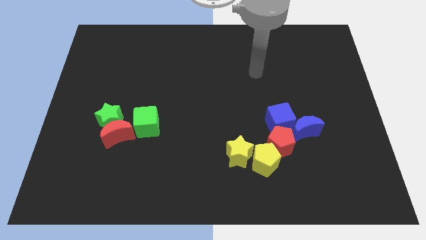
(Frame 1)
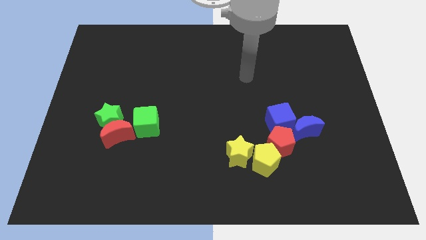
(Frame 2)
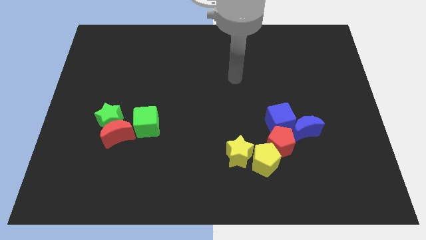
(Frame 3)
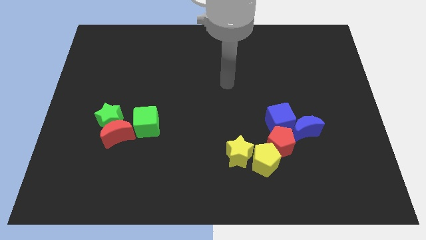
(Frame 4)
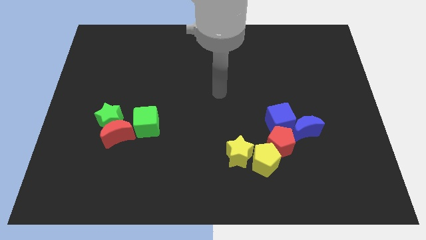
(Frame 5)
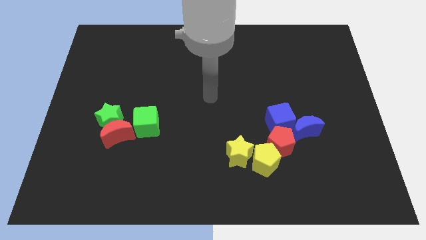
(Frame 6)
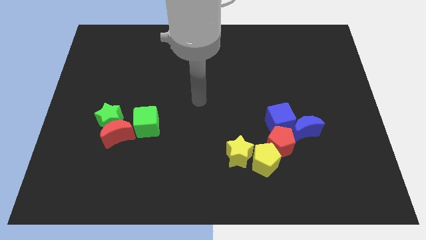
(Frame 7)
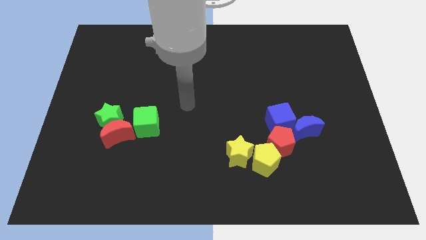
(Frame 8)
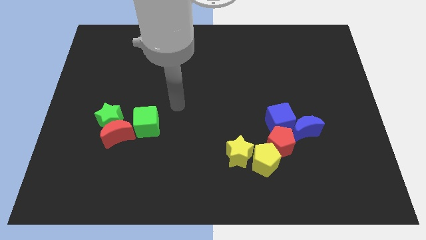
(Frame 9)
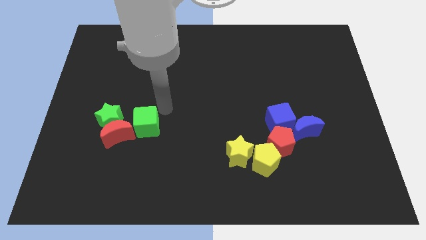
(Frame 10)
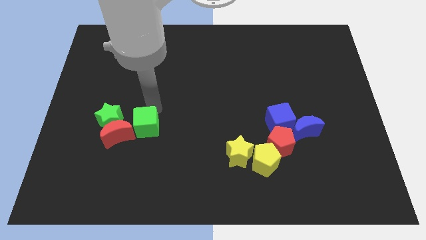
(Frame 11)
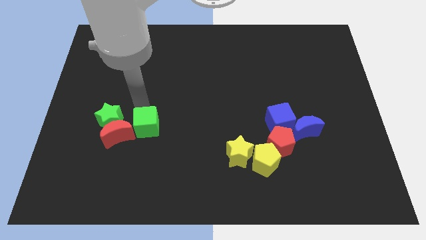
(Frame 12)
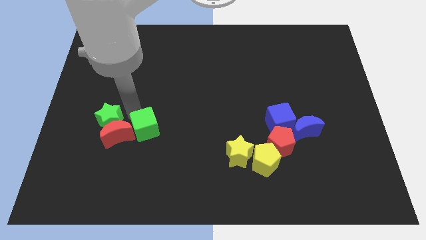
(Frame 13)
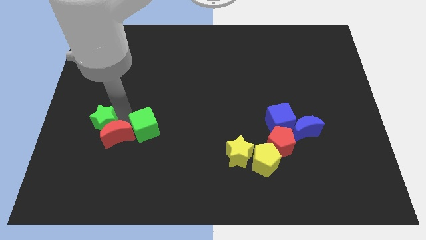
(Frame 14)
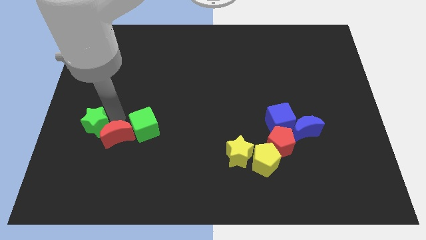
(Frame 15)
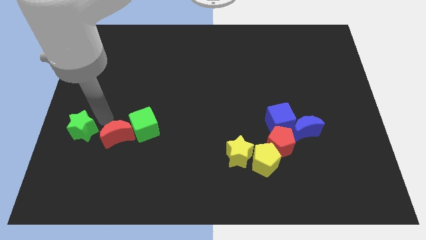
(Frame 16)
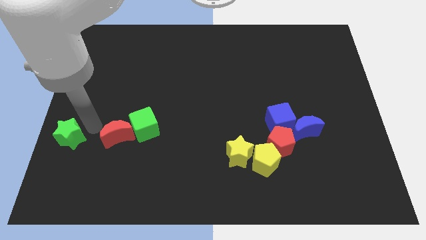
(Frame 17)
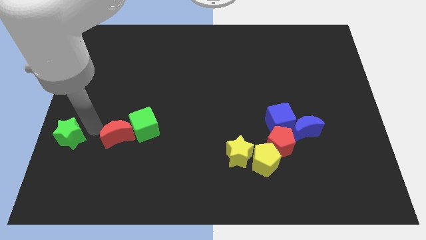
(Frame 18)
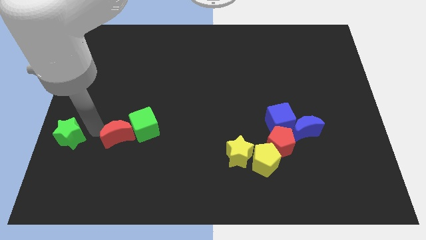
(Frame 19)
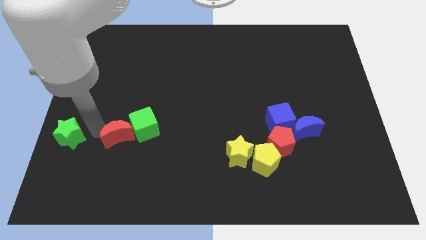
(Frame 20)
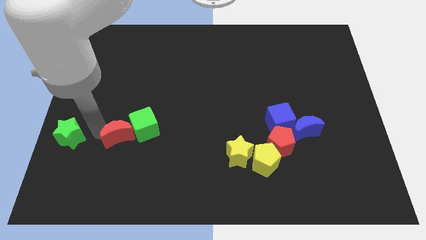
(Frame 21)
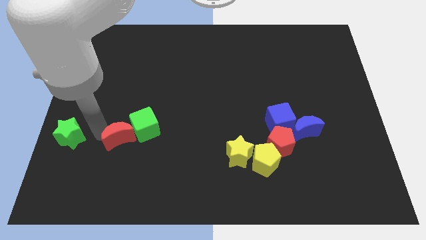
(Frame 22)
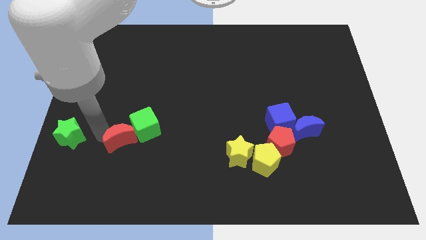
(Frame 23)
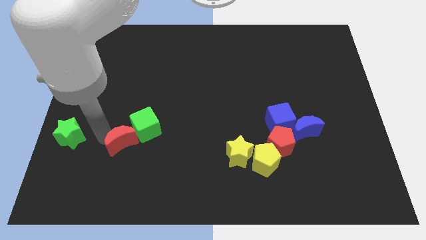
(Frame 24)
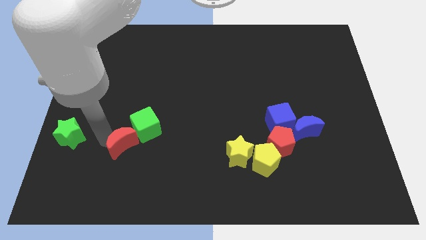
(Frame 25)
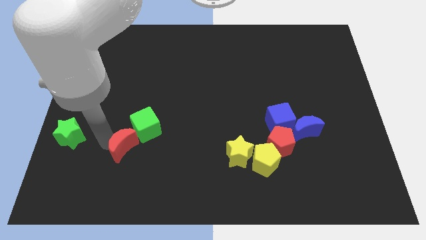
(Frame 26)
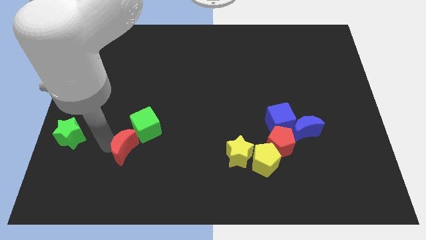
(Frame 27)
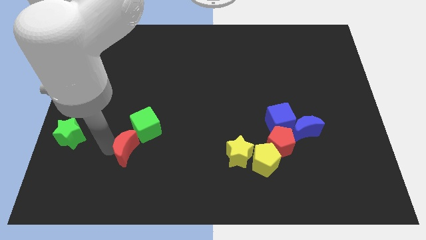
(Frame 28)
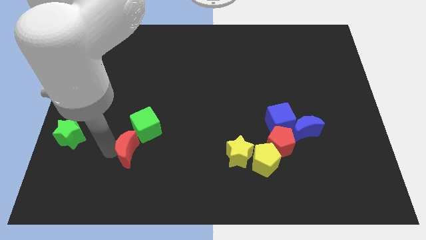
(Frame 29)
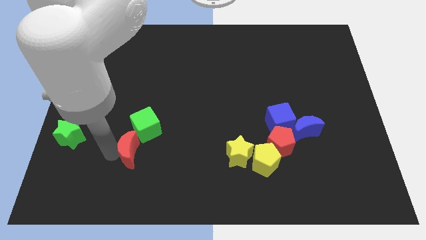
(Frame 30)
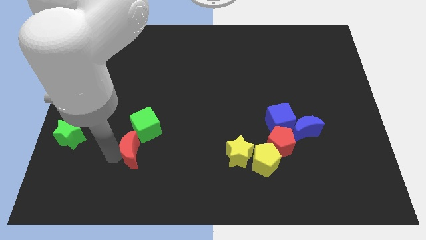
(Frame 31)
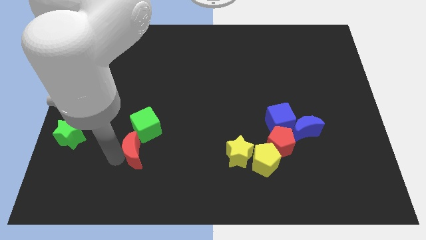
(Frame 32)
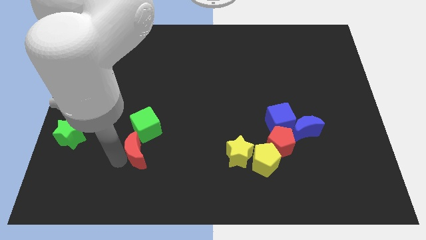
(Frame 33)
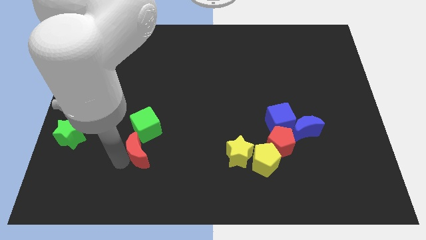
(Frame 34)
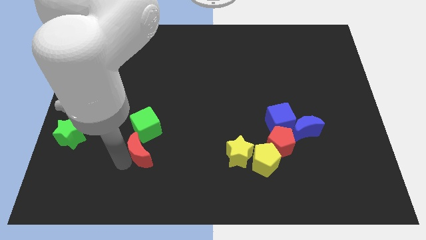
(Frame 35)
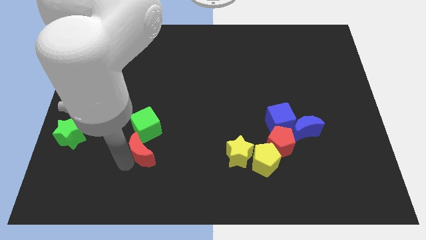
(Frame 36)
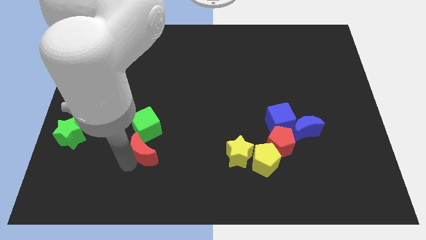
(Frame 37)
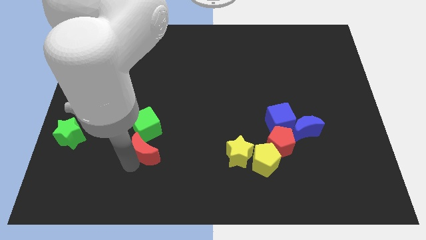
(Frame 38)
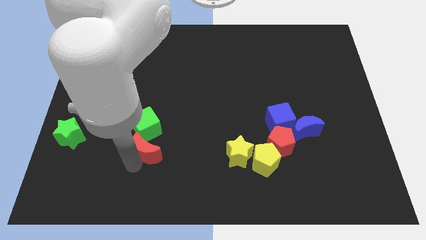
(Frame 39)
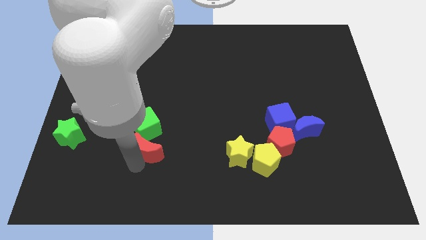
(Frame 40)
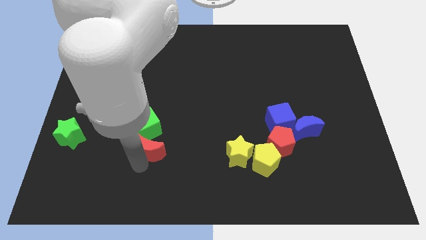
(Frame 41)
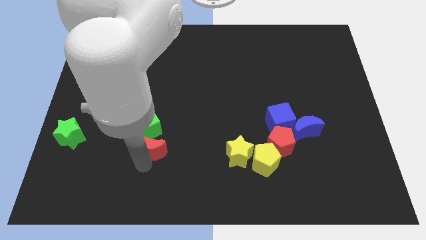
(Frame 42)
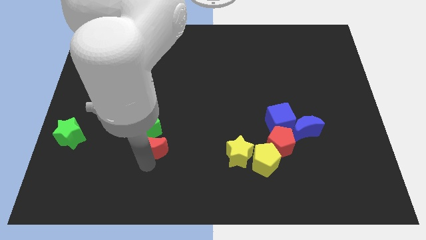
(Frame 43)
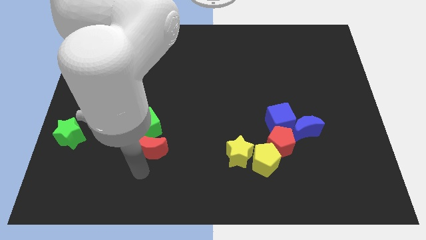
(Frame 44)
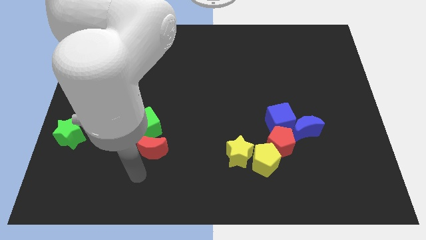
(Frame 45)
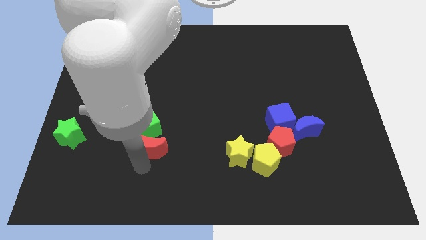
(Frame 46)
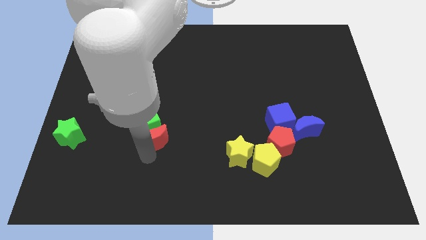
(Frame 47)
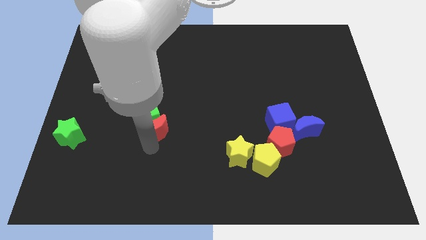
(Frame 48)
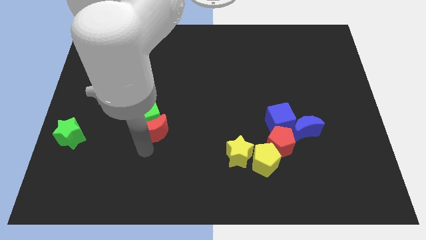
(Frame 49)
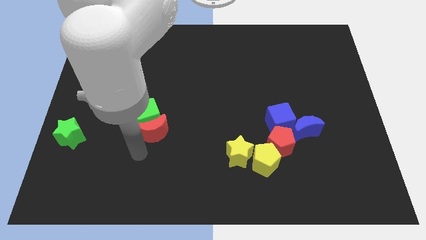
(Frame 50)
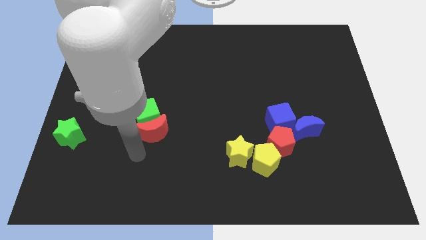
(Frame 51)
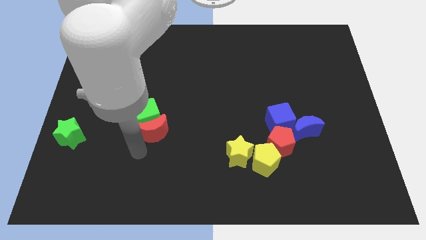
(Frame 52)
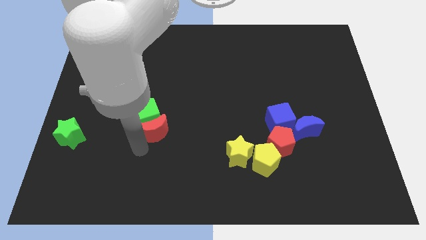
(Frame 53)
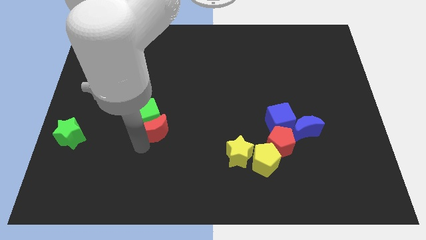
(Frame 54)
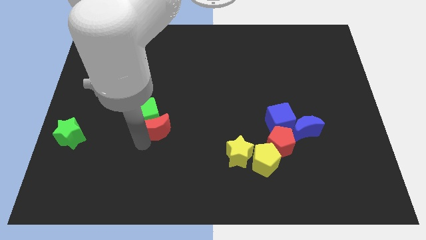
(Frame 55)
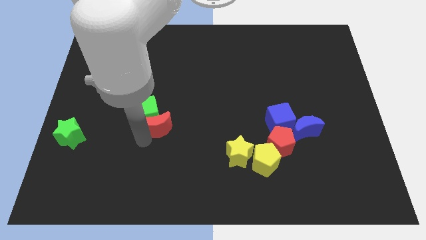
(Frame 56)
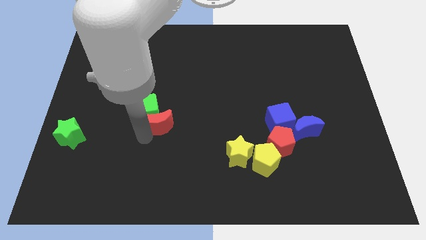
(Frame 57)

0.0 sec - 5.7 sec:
slightly slide the red moon diagonally up and right

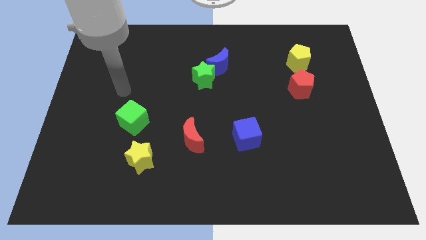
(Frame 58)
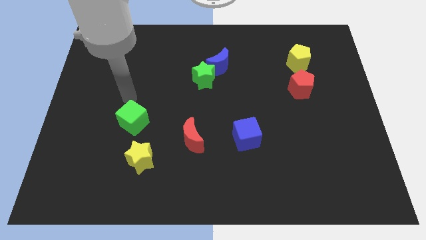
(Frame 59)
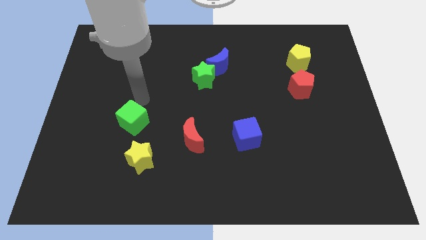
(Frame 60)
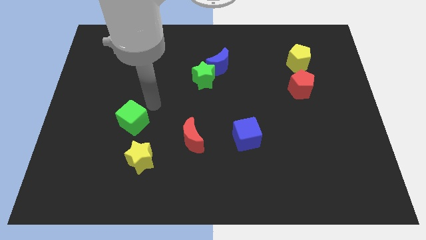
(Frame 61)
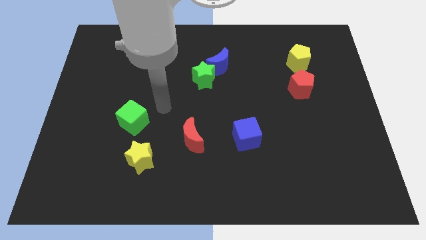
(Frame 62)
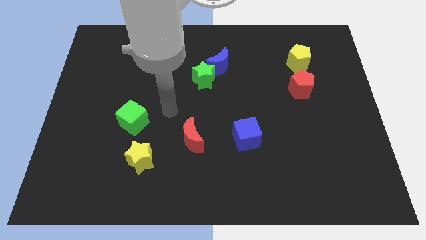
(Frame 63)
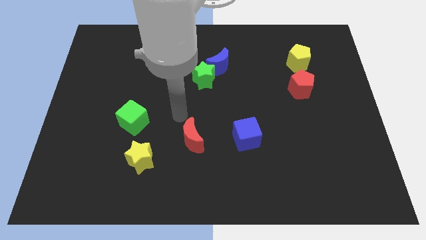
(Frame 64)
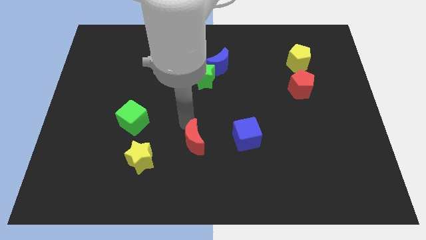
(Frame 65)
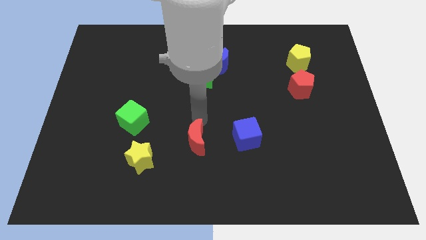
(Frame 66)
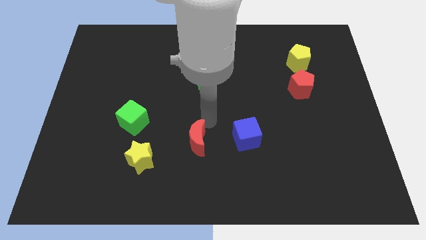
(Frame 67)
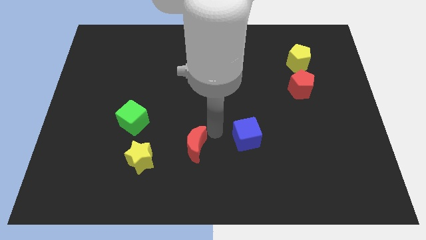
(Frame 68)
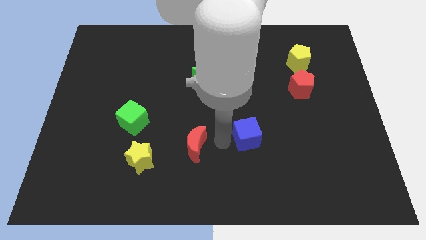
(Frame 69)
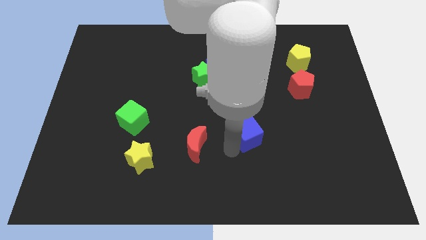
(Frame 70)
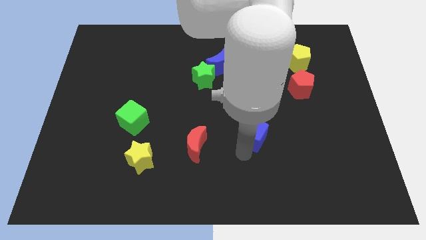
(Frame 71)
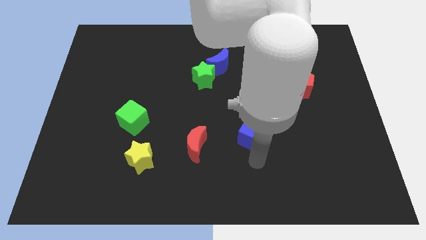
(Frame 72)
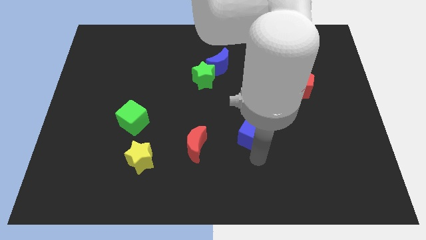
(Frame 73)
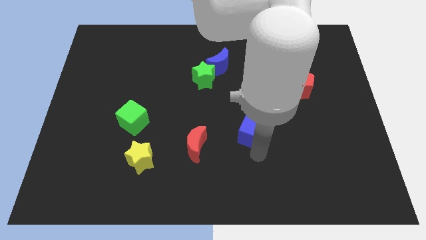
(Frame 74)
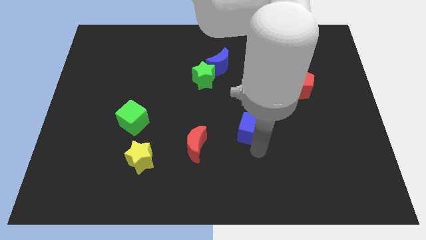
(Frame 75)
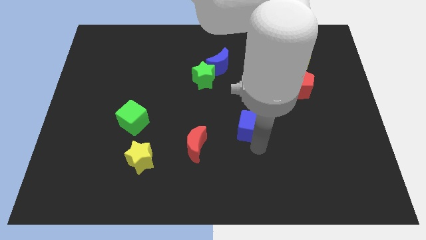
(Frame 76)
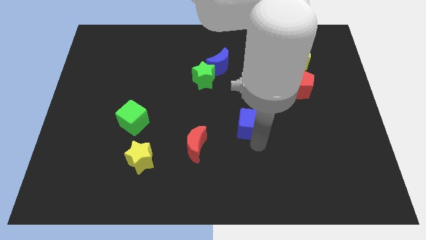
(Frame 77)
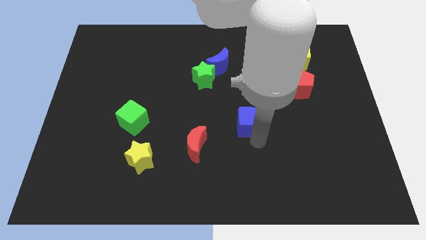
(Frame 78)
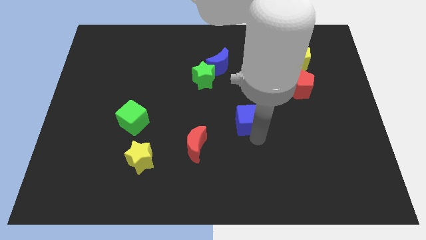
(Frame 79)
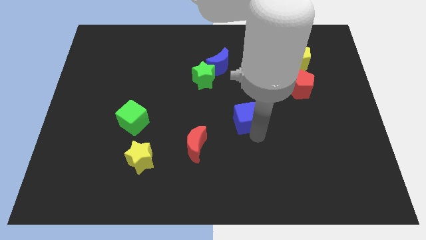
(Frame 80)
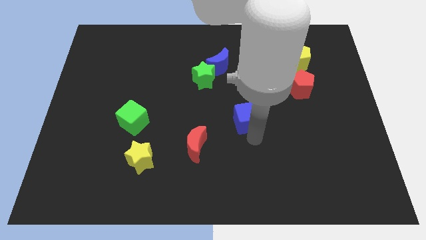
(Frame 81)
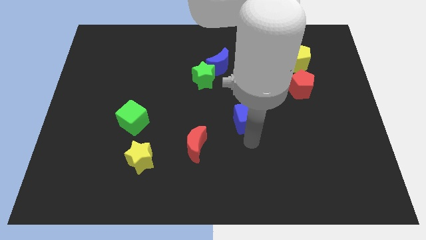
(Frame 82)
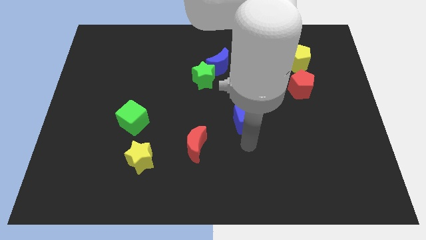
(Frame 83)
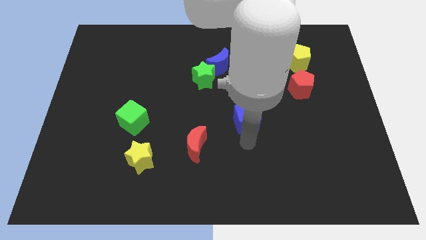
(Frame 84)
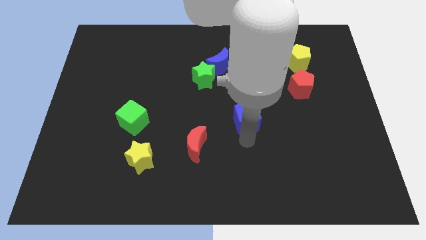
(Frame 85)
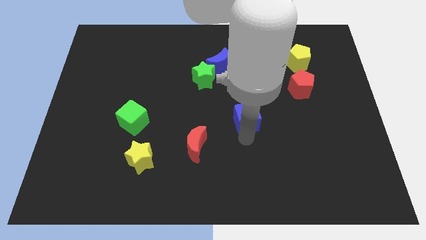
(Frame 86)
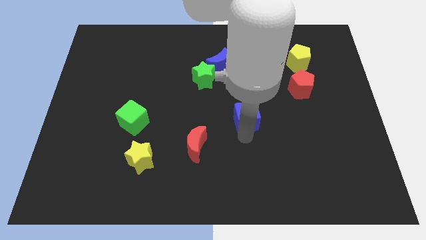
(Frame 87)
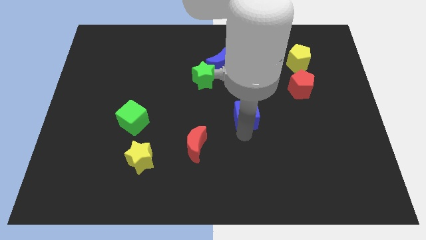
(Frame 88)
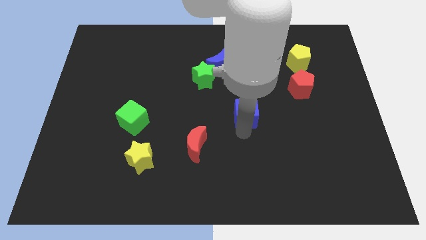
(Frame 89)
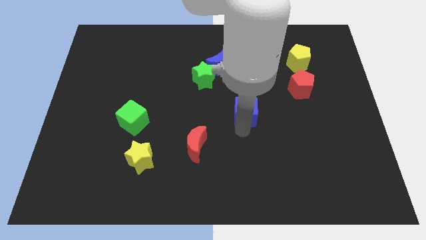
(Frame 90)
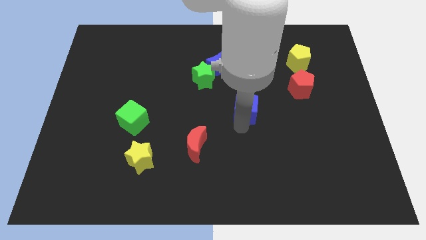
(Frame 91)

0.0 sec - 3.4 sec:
move the blue cube a little upwards
